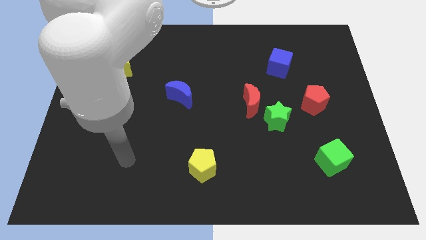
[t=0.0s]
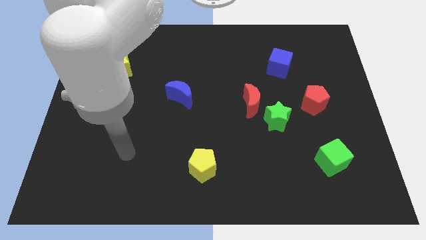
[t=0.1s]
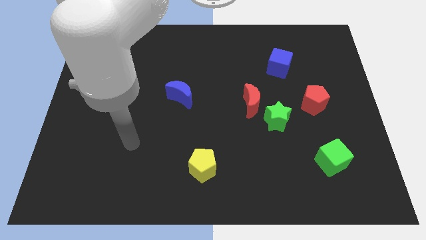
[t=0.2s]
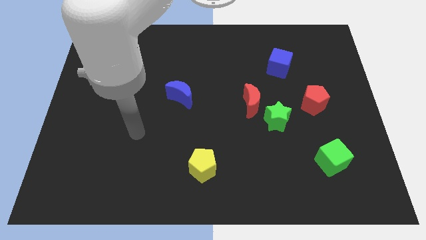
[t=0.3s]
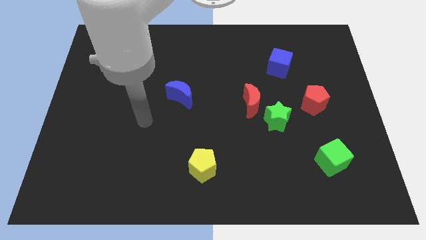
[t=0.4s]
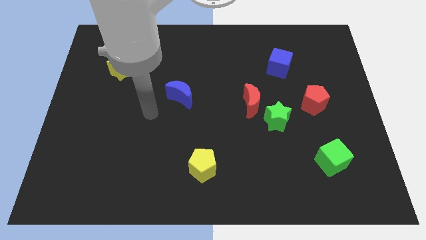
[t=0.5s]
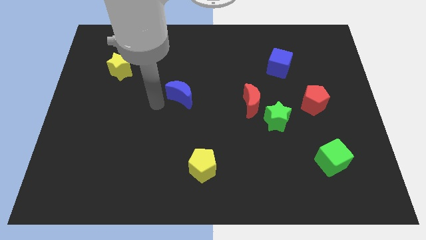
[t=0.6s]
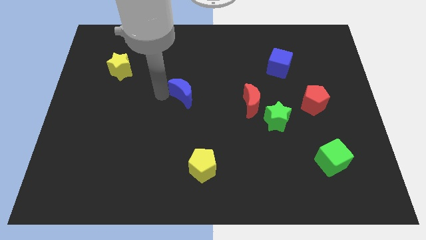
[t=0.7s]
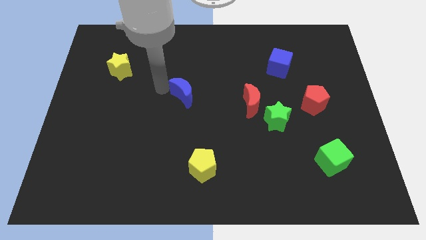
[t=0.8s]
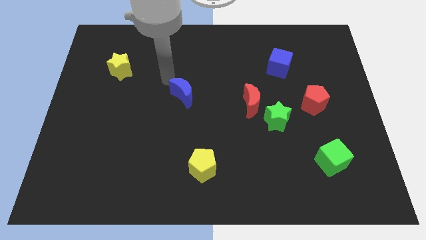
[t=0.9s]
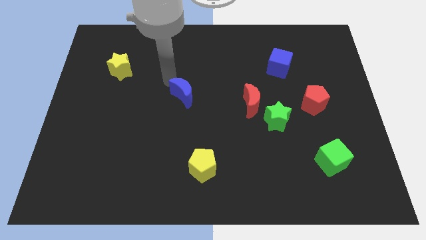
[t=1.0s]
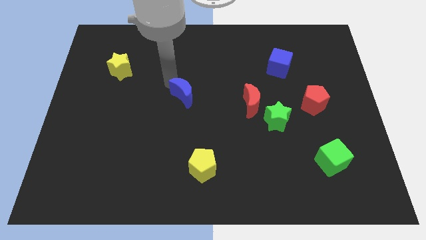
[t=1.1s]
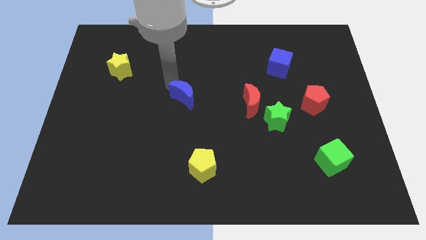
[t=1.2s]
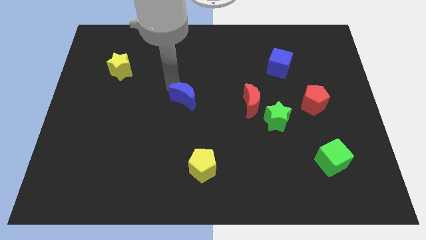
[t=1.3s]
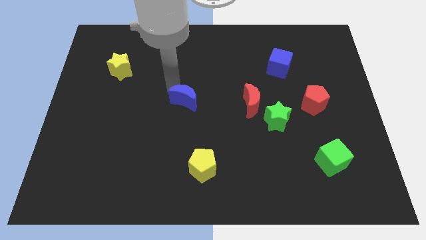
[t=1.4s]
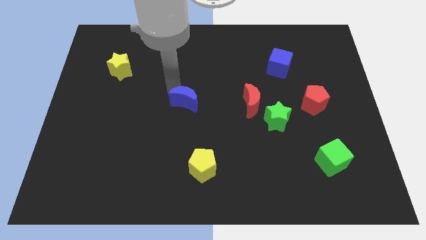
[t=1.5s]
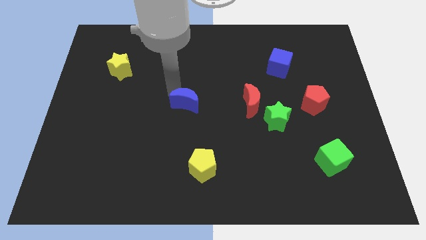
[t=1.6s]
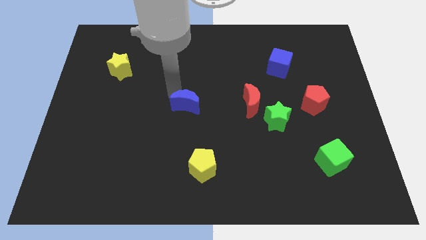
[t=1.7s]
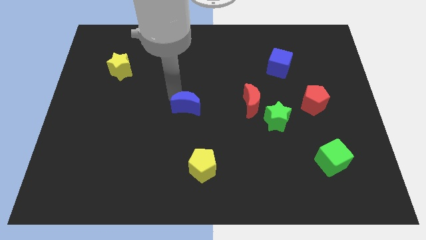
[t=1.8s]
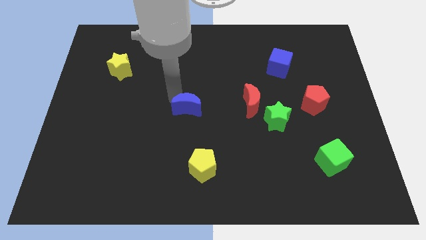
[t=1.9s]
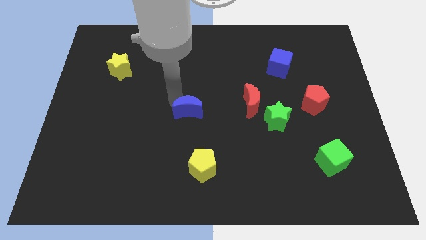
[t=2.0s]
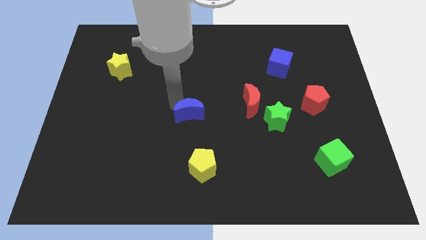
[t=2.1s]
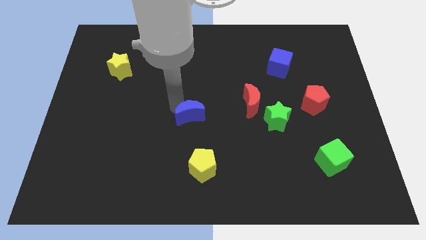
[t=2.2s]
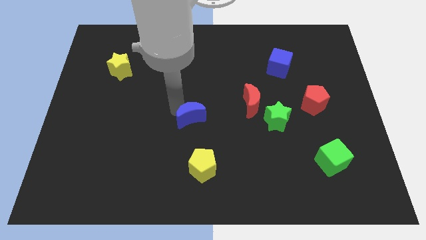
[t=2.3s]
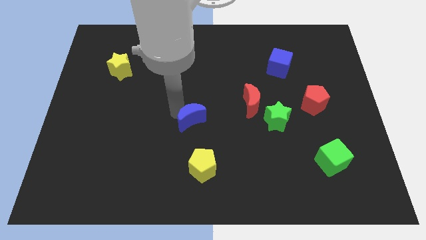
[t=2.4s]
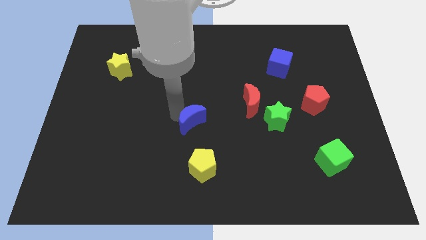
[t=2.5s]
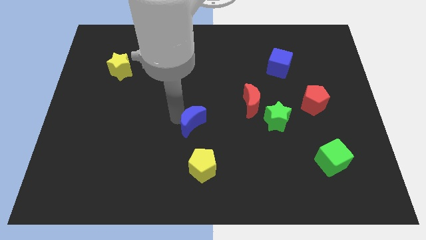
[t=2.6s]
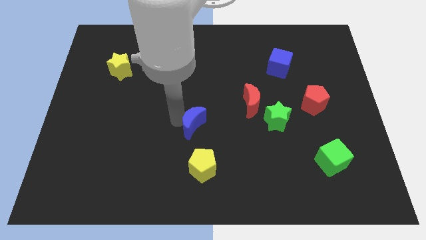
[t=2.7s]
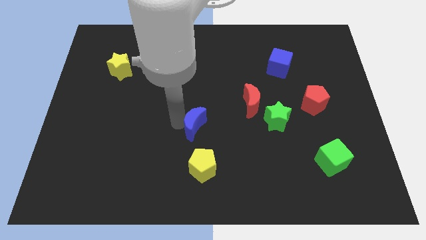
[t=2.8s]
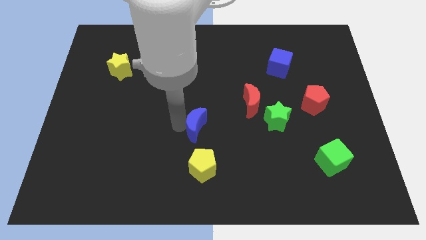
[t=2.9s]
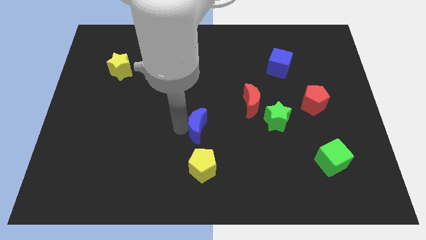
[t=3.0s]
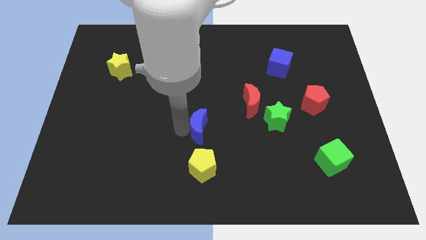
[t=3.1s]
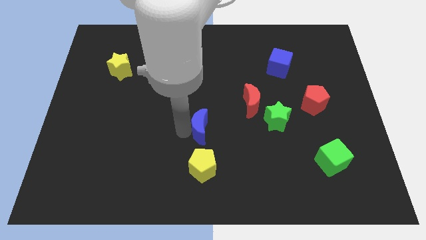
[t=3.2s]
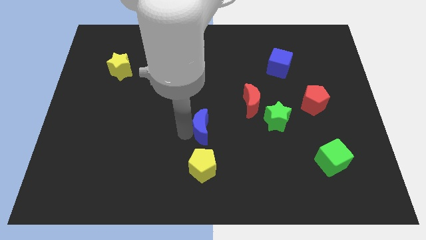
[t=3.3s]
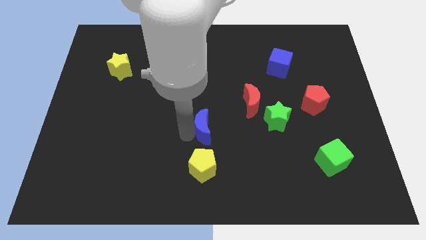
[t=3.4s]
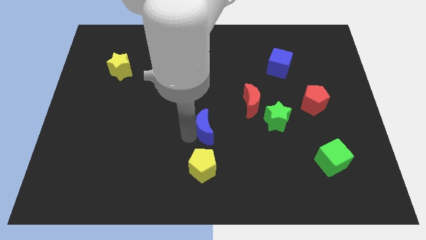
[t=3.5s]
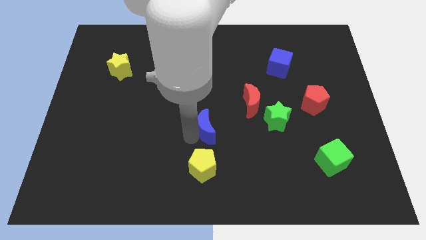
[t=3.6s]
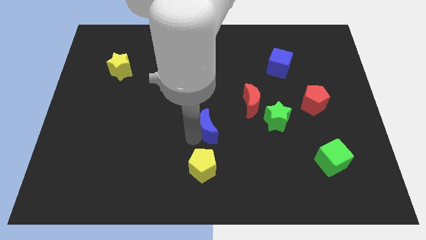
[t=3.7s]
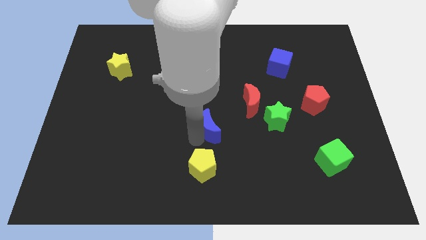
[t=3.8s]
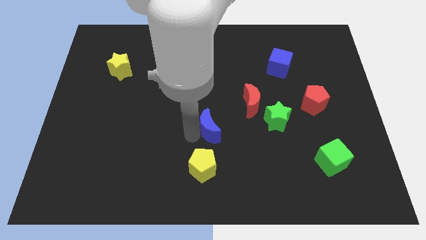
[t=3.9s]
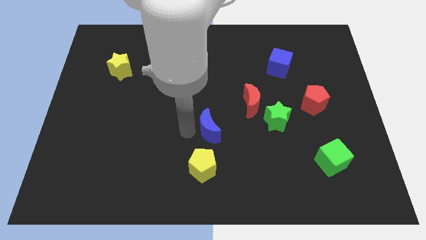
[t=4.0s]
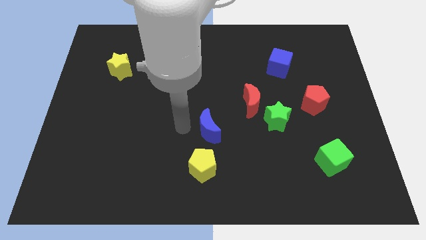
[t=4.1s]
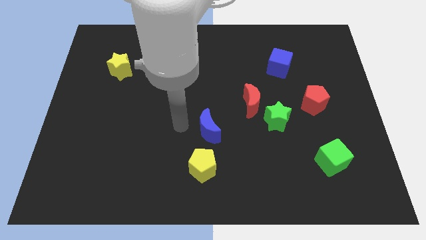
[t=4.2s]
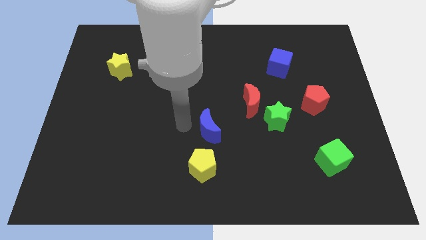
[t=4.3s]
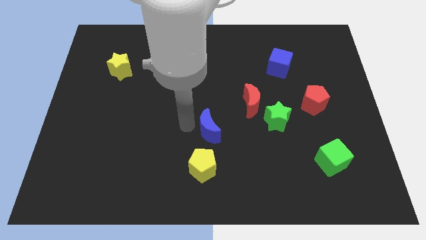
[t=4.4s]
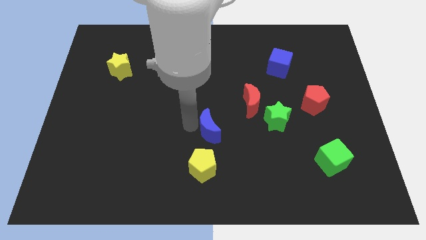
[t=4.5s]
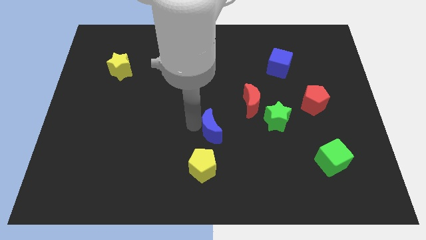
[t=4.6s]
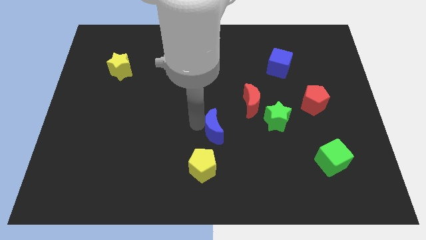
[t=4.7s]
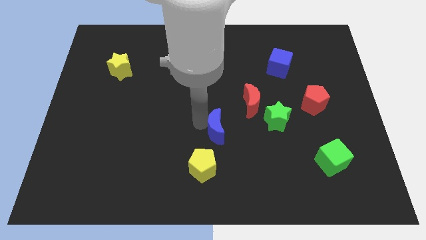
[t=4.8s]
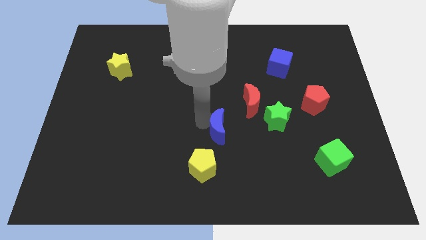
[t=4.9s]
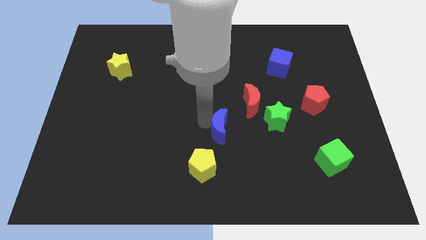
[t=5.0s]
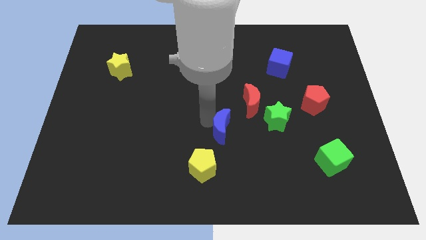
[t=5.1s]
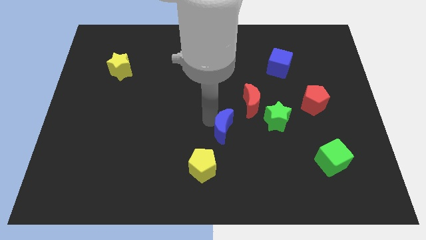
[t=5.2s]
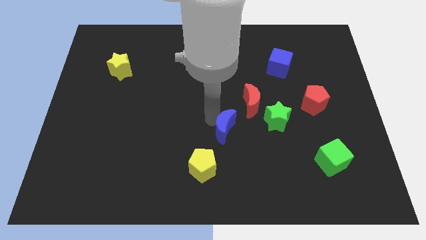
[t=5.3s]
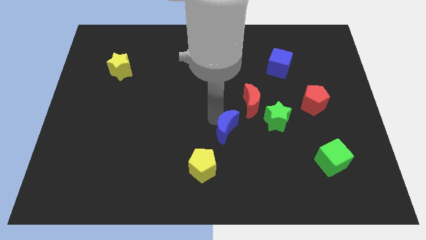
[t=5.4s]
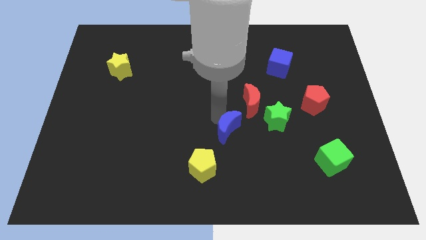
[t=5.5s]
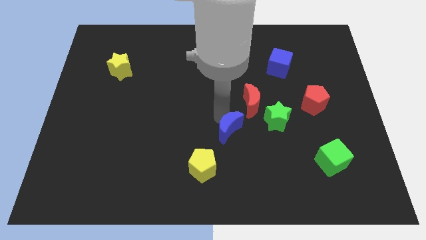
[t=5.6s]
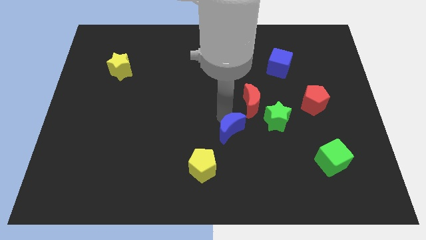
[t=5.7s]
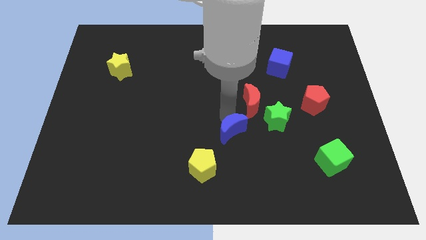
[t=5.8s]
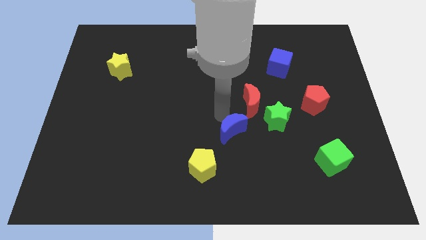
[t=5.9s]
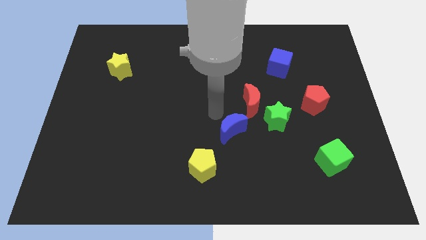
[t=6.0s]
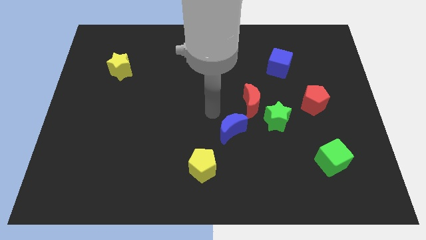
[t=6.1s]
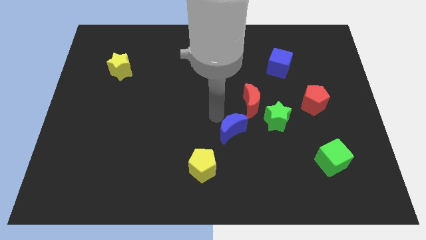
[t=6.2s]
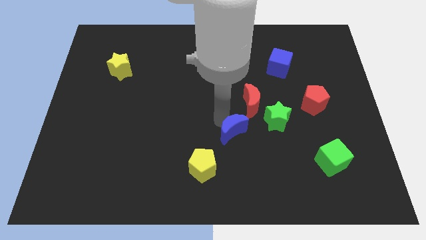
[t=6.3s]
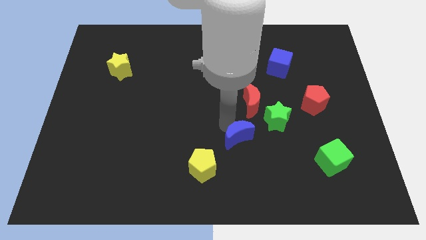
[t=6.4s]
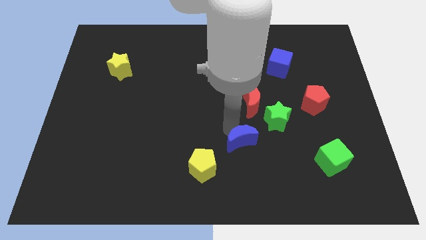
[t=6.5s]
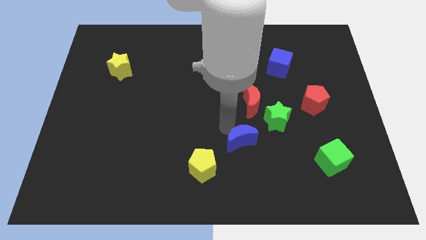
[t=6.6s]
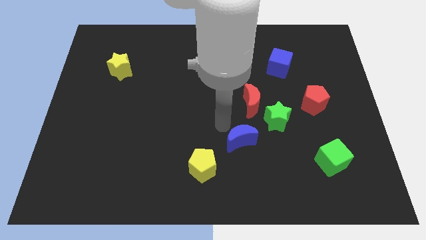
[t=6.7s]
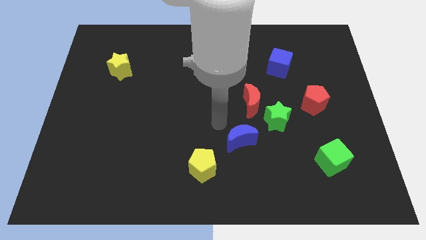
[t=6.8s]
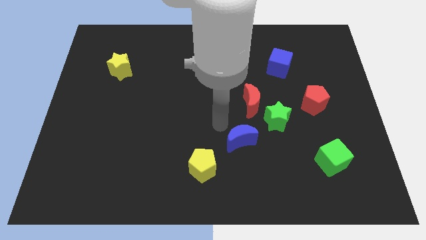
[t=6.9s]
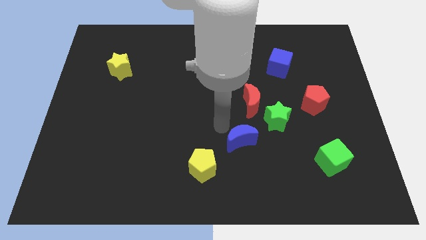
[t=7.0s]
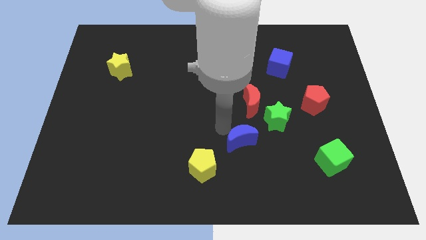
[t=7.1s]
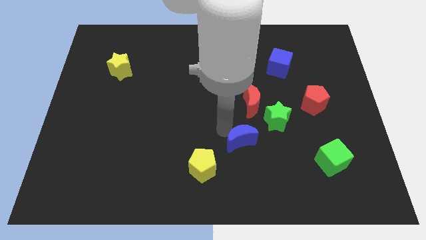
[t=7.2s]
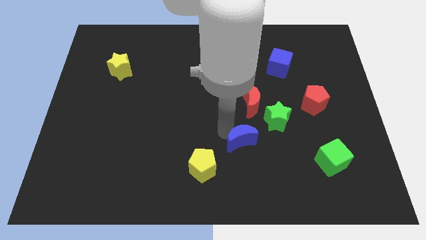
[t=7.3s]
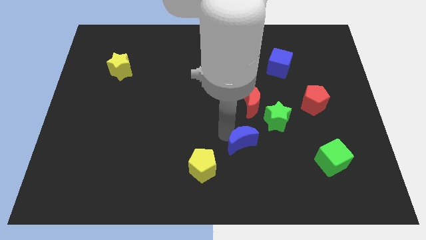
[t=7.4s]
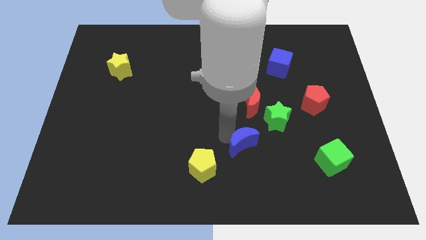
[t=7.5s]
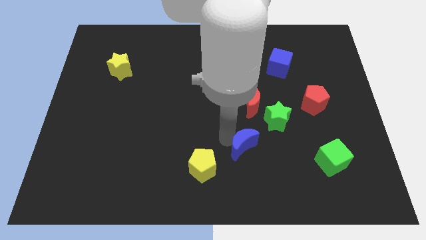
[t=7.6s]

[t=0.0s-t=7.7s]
slide the blue moon down and to the right diagonally

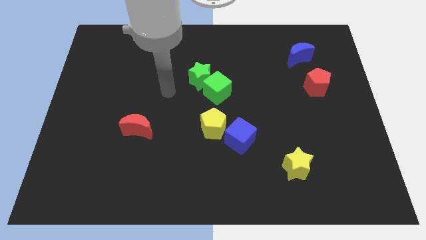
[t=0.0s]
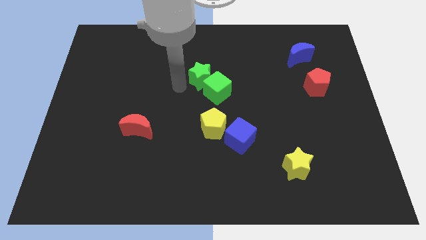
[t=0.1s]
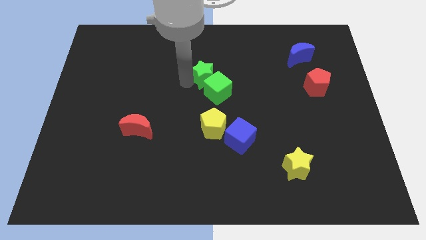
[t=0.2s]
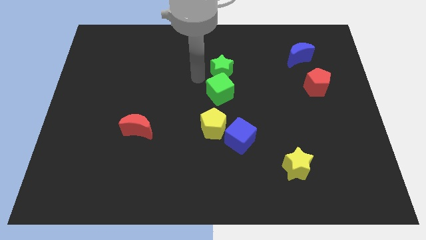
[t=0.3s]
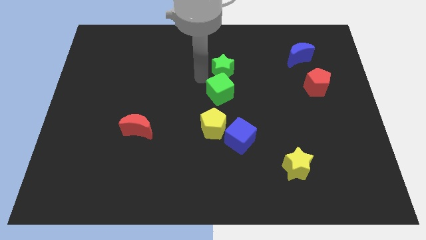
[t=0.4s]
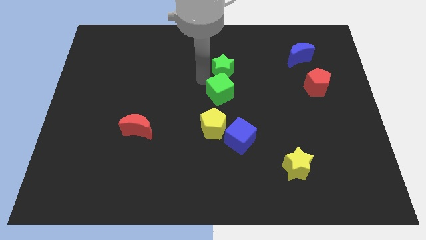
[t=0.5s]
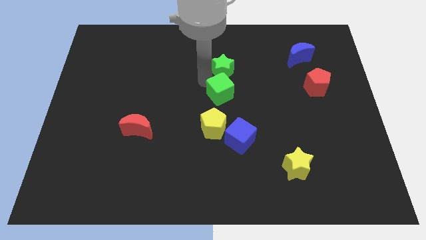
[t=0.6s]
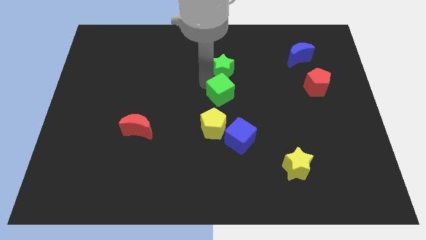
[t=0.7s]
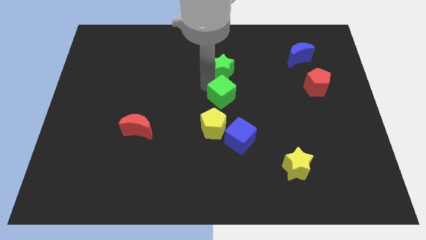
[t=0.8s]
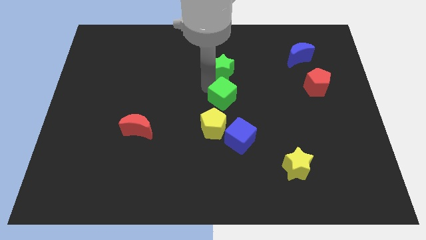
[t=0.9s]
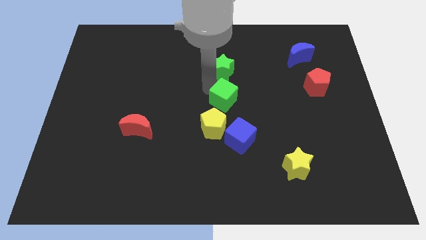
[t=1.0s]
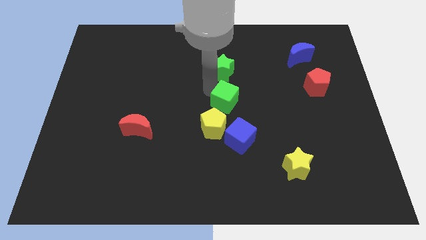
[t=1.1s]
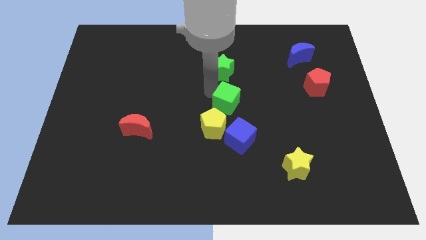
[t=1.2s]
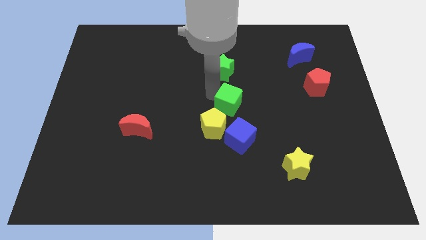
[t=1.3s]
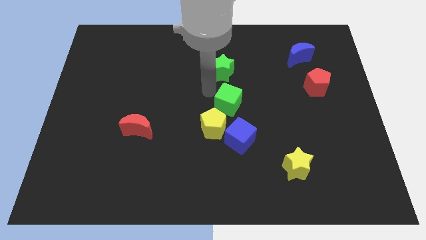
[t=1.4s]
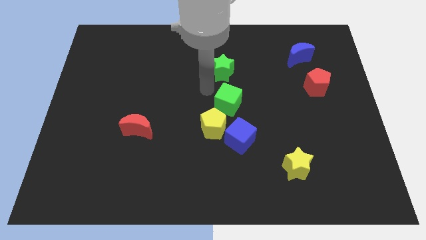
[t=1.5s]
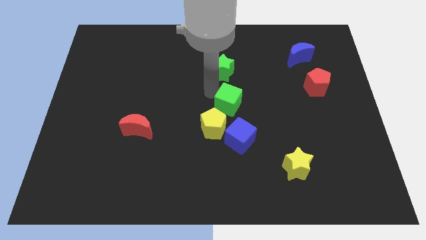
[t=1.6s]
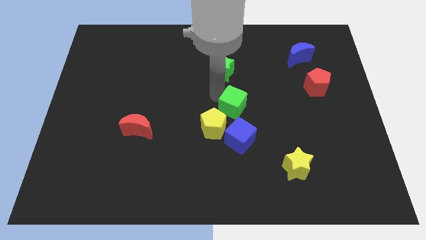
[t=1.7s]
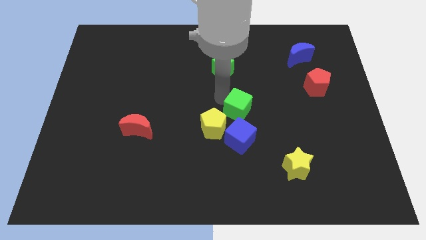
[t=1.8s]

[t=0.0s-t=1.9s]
push the green cube a little bit down and then to the right
